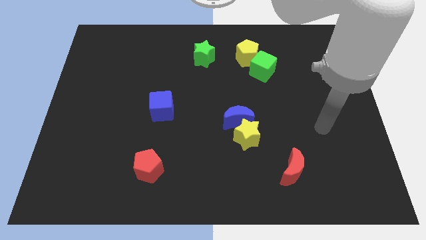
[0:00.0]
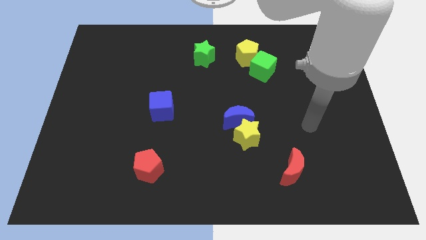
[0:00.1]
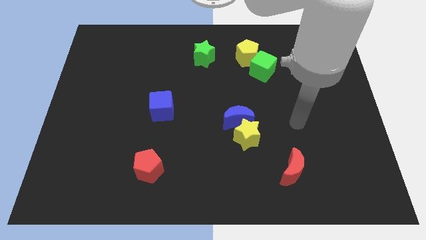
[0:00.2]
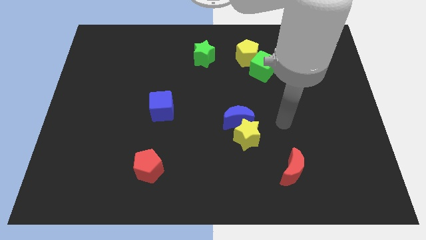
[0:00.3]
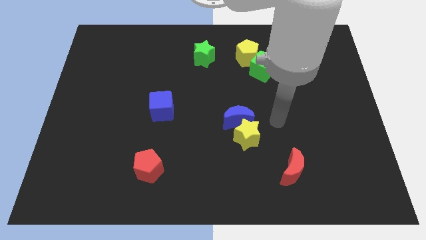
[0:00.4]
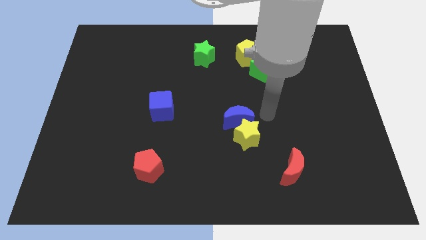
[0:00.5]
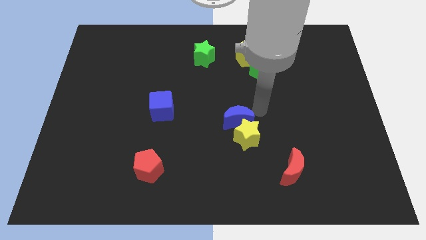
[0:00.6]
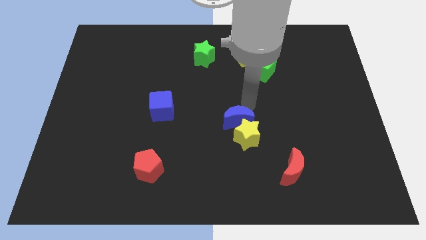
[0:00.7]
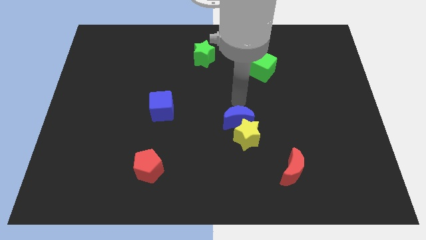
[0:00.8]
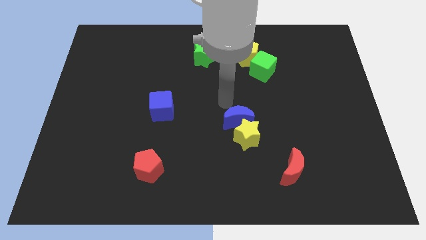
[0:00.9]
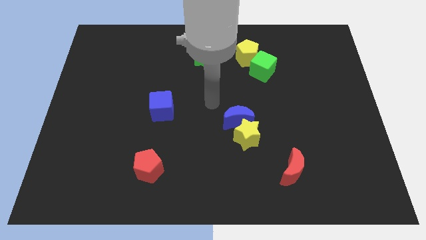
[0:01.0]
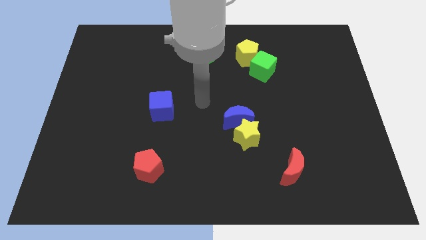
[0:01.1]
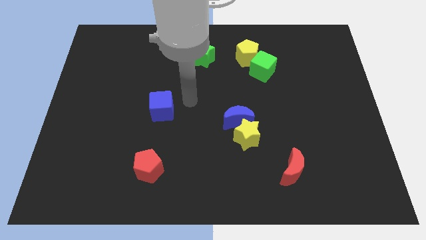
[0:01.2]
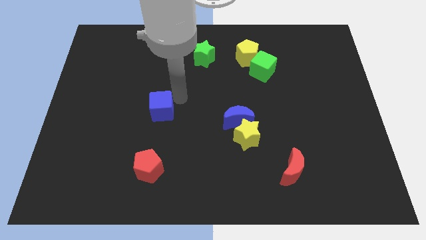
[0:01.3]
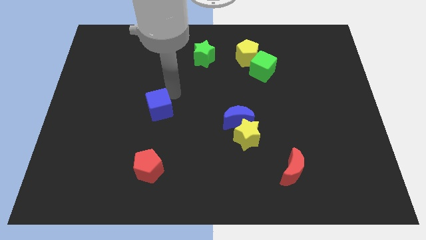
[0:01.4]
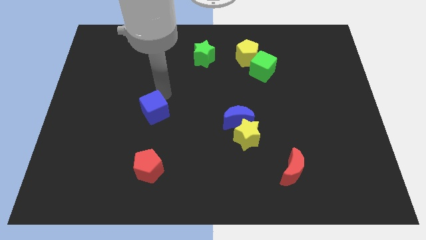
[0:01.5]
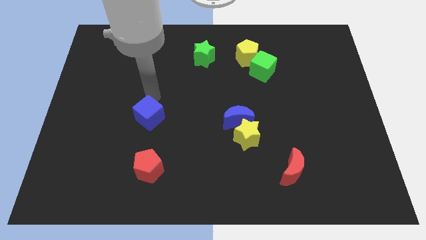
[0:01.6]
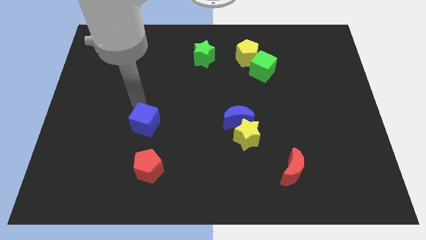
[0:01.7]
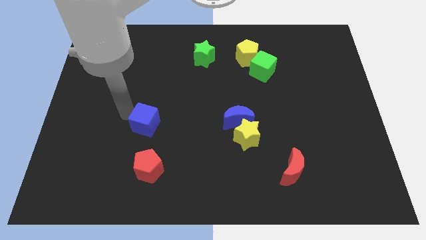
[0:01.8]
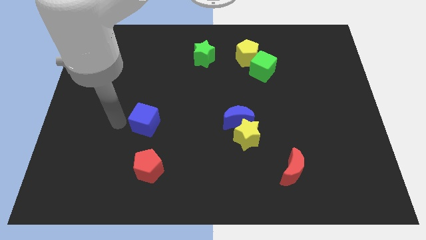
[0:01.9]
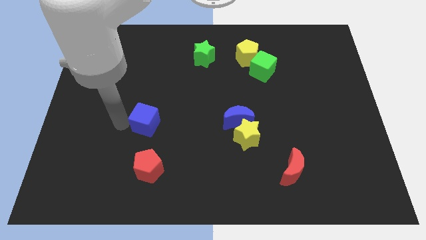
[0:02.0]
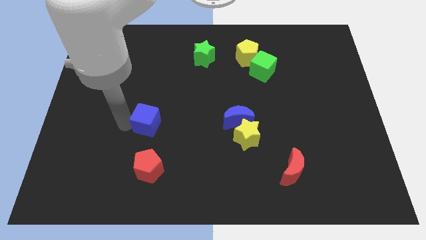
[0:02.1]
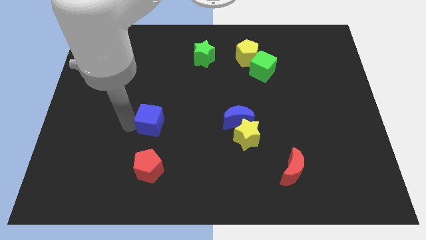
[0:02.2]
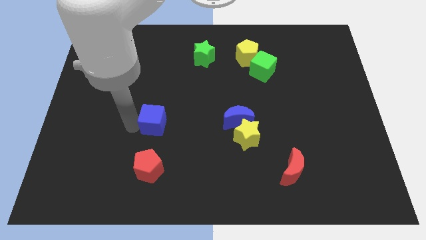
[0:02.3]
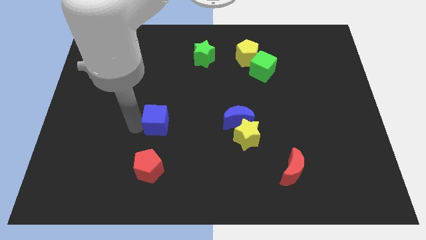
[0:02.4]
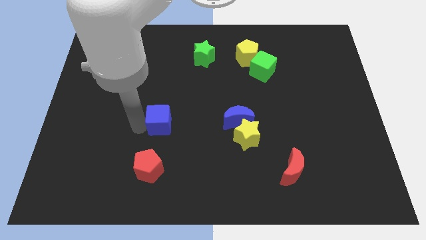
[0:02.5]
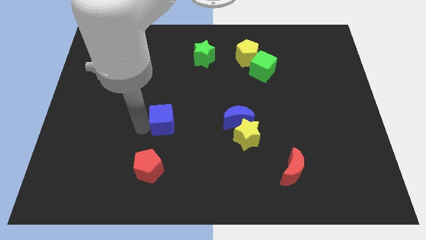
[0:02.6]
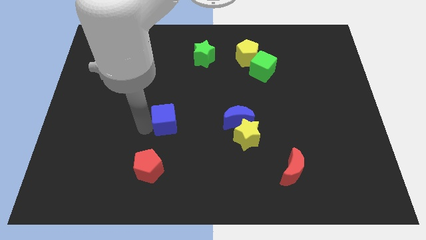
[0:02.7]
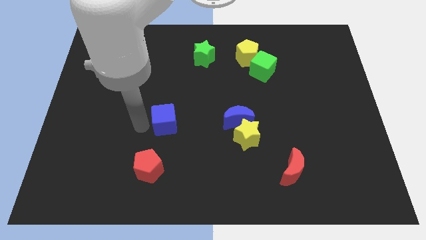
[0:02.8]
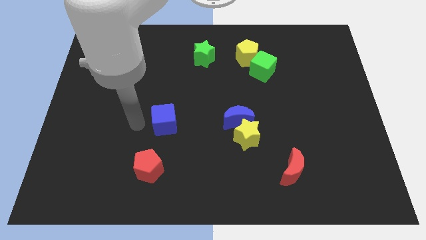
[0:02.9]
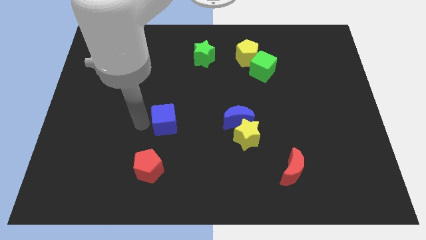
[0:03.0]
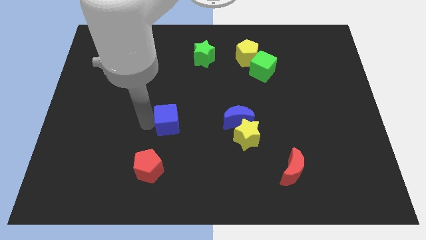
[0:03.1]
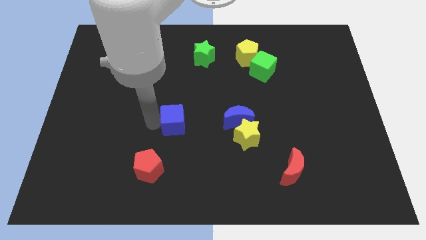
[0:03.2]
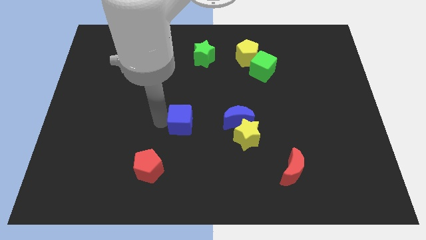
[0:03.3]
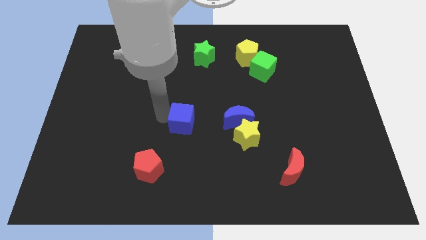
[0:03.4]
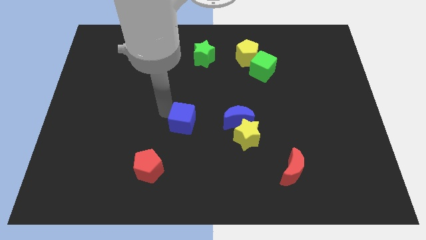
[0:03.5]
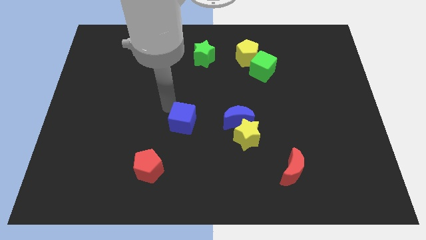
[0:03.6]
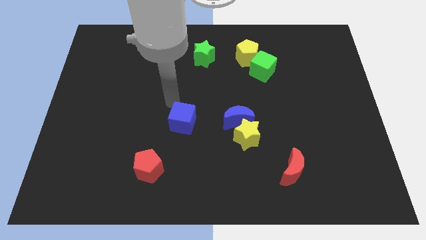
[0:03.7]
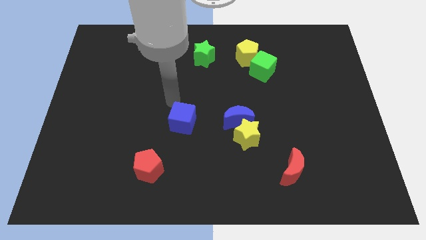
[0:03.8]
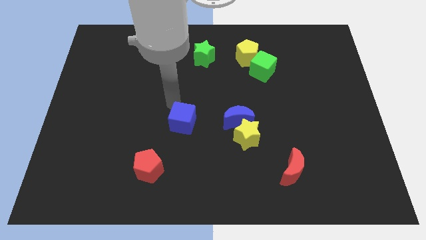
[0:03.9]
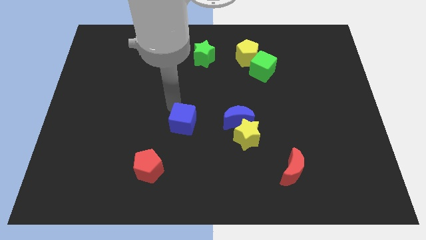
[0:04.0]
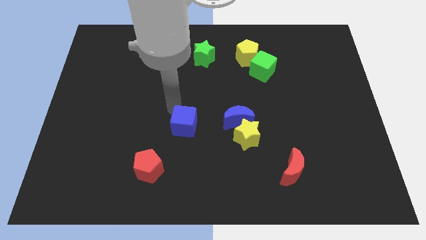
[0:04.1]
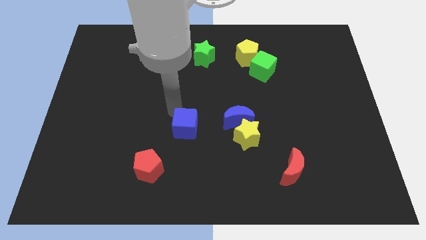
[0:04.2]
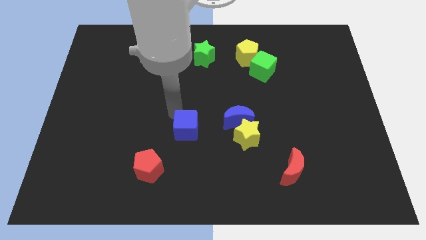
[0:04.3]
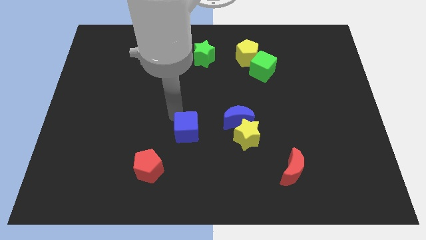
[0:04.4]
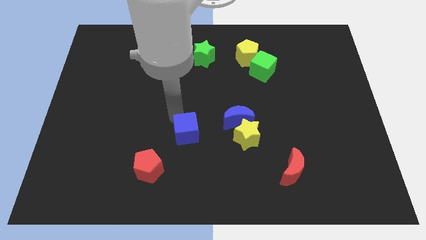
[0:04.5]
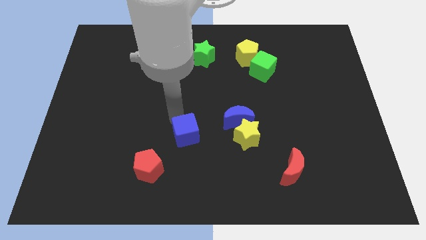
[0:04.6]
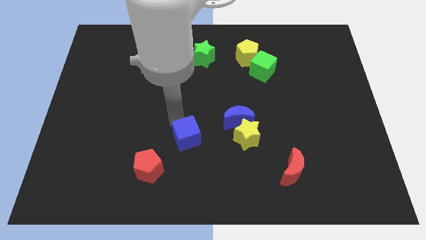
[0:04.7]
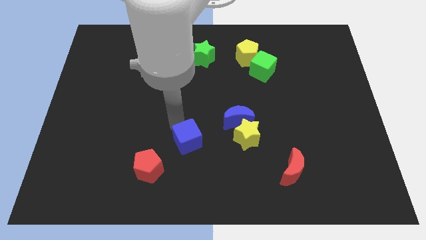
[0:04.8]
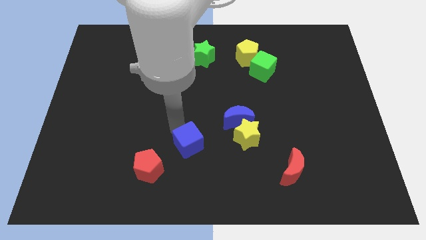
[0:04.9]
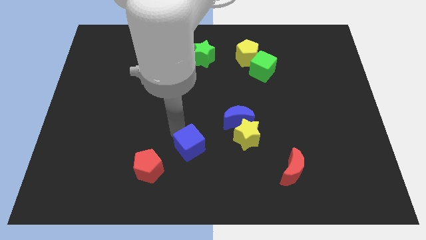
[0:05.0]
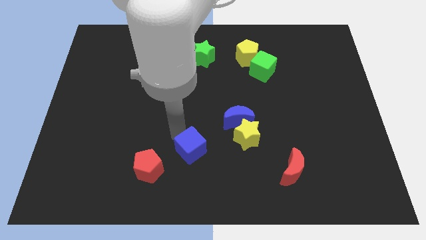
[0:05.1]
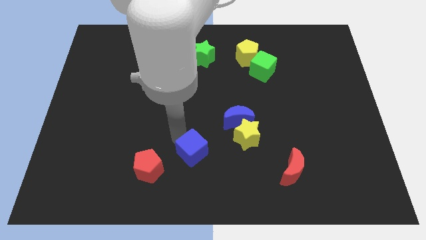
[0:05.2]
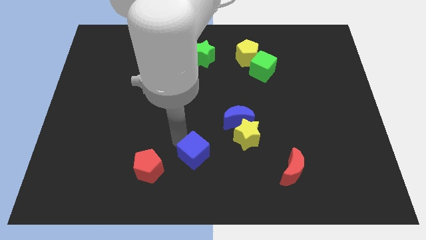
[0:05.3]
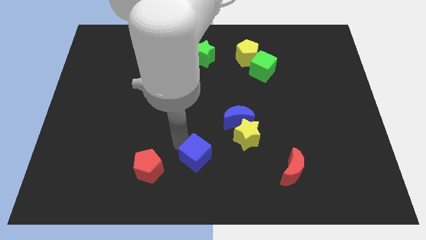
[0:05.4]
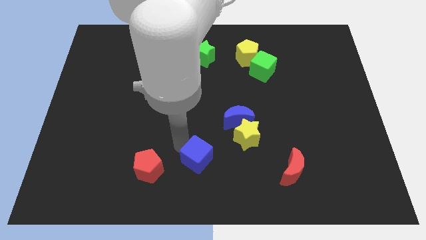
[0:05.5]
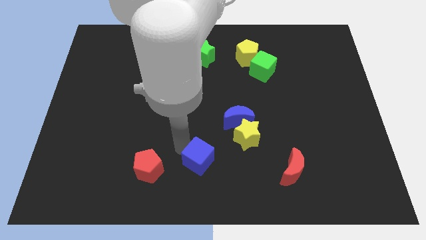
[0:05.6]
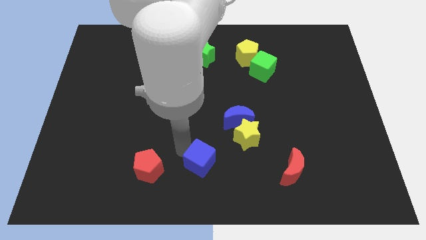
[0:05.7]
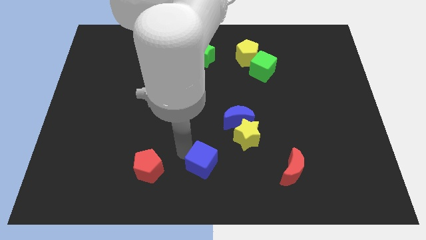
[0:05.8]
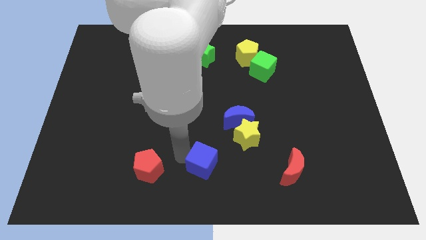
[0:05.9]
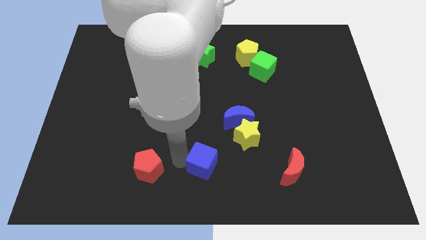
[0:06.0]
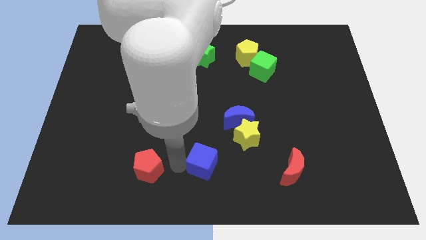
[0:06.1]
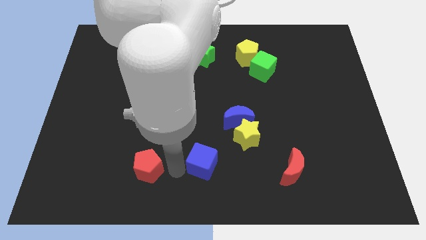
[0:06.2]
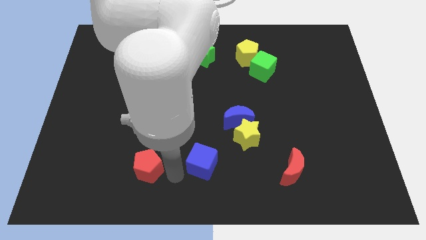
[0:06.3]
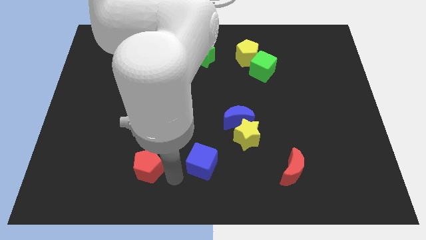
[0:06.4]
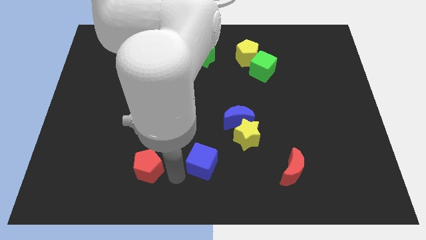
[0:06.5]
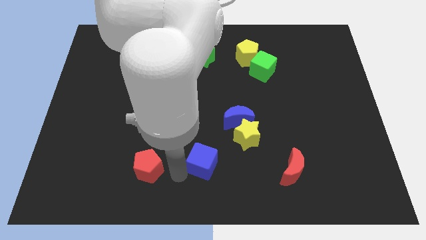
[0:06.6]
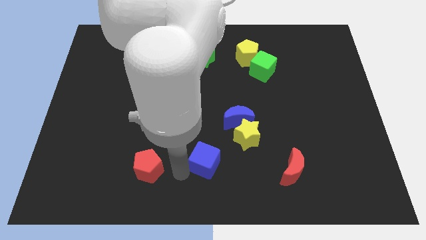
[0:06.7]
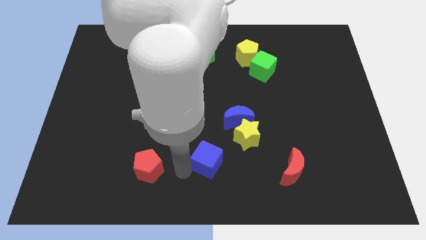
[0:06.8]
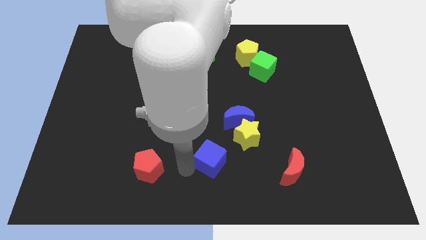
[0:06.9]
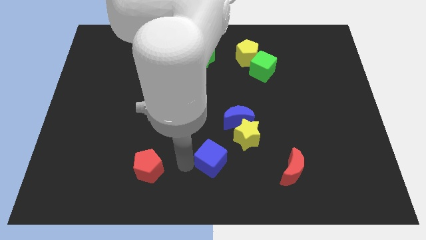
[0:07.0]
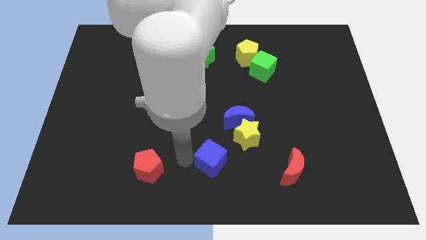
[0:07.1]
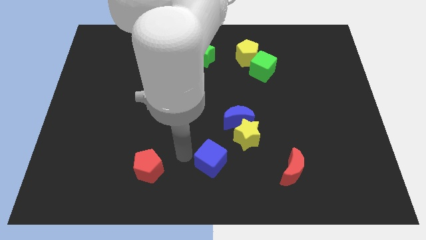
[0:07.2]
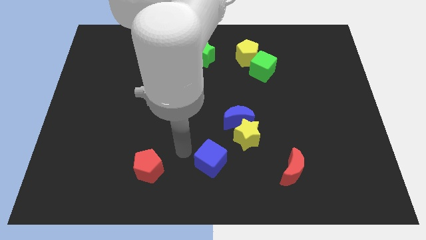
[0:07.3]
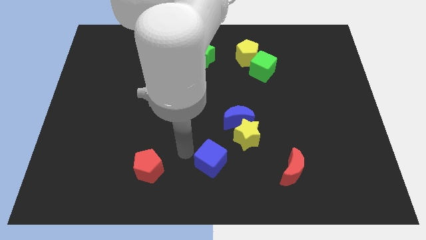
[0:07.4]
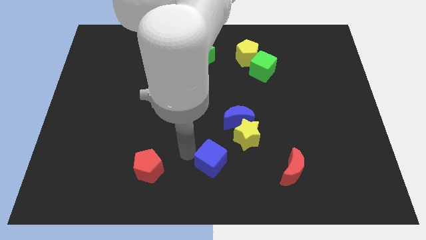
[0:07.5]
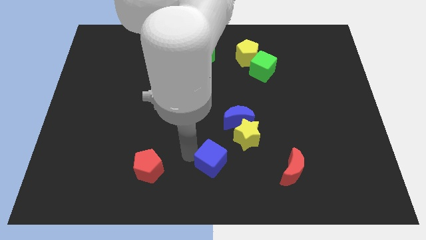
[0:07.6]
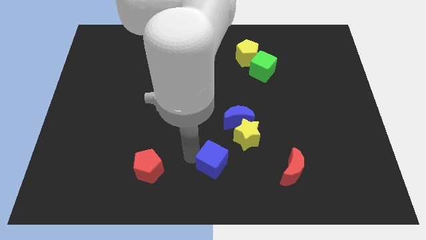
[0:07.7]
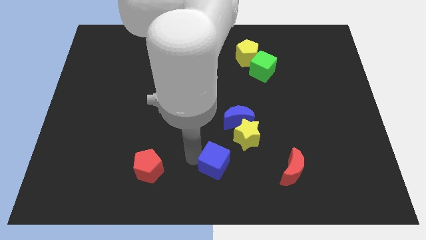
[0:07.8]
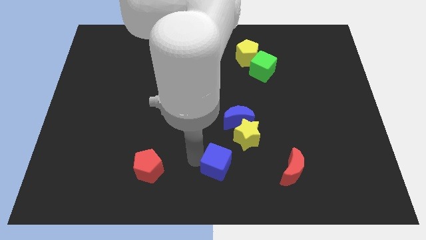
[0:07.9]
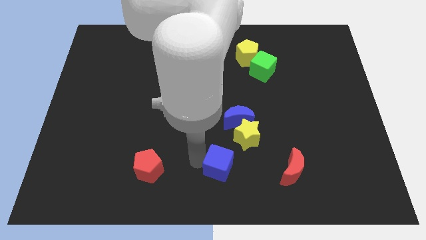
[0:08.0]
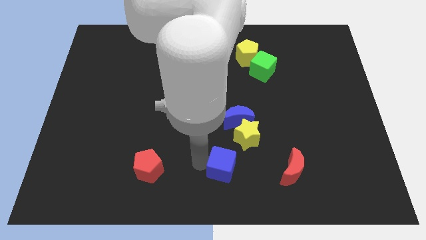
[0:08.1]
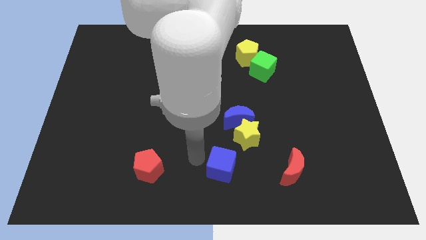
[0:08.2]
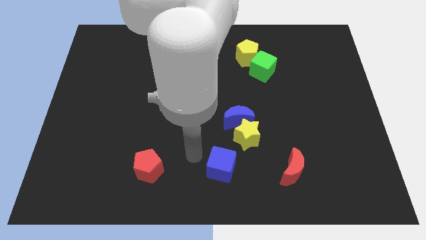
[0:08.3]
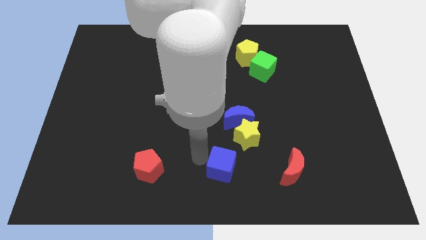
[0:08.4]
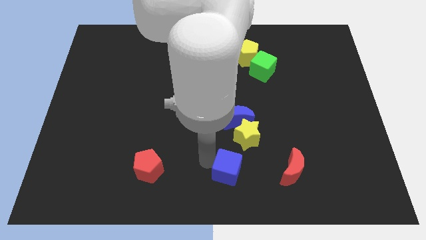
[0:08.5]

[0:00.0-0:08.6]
push the blue cube below the yellow star
